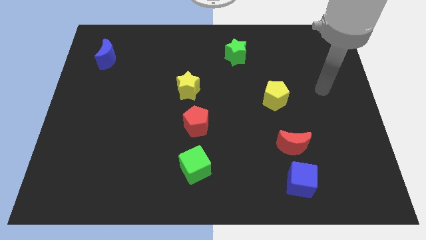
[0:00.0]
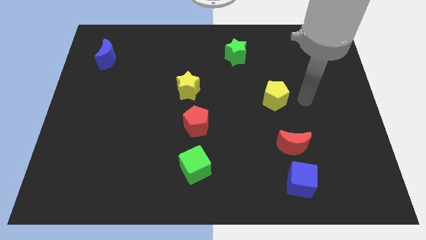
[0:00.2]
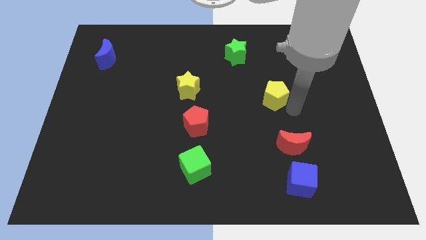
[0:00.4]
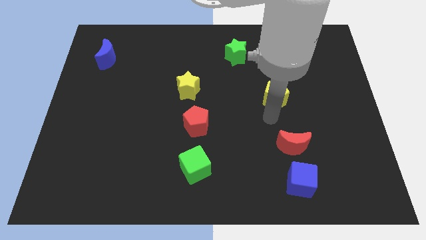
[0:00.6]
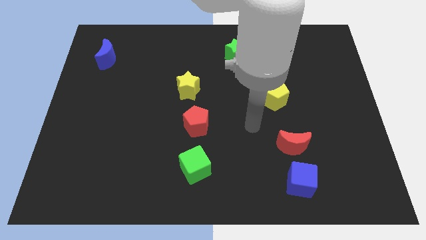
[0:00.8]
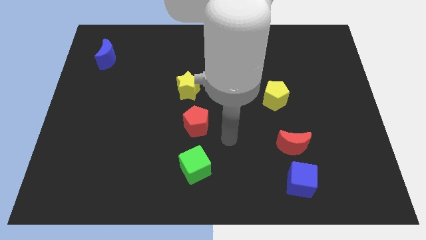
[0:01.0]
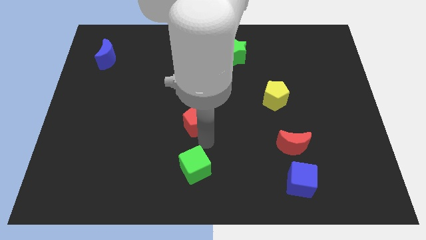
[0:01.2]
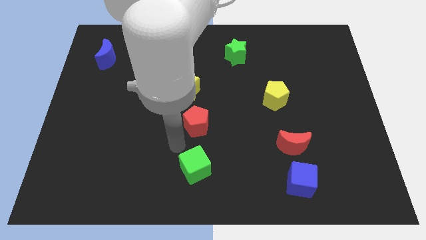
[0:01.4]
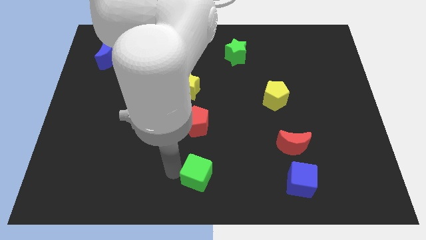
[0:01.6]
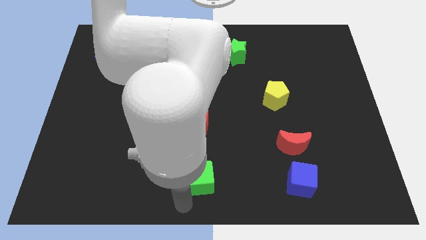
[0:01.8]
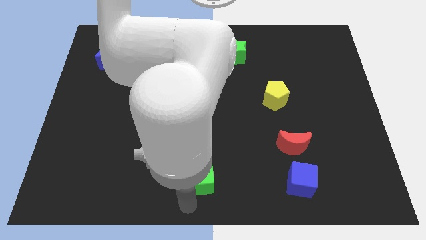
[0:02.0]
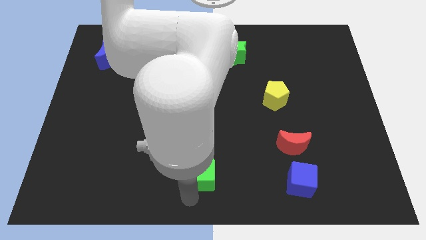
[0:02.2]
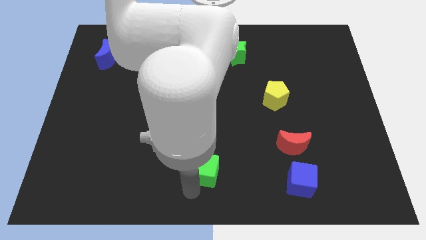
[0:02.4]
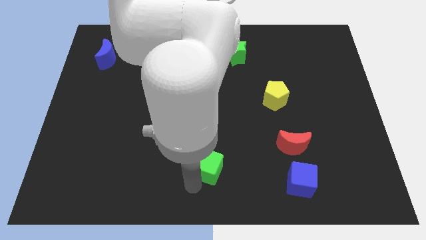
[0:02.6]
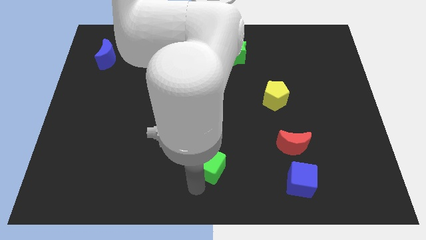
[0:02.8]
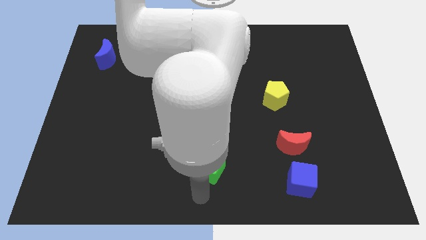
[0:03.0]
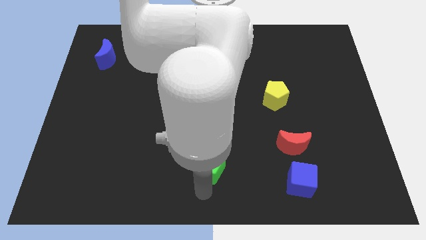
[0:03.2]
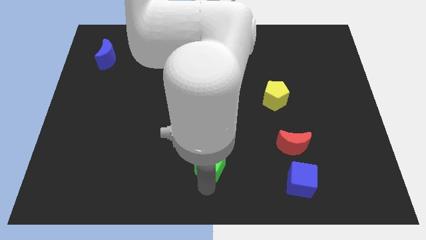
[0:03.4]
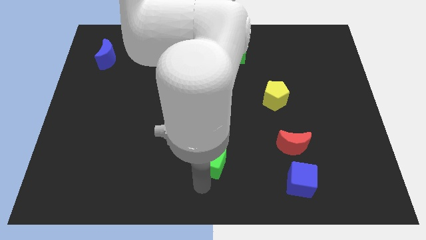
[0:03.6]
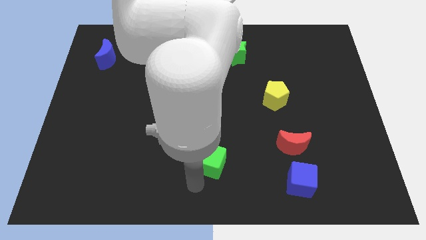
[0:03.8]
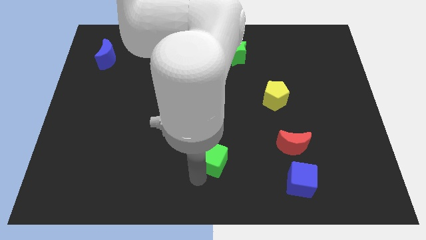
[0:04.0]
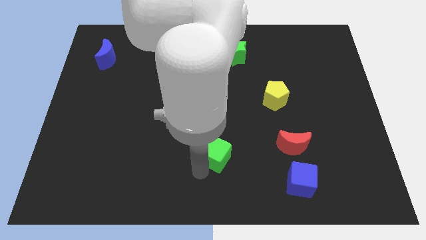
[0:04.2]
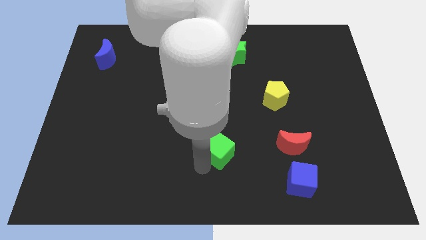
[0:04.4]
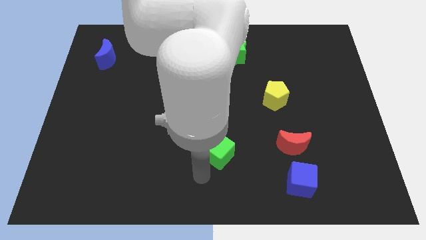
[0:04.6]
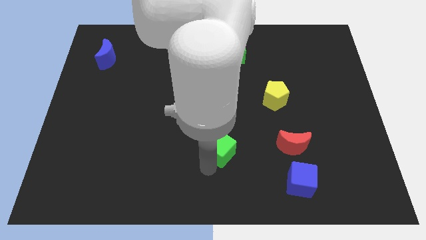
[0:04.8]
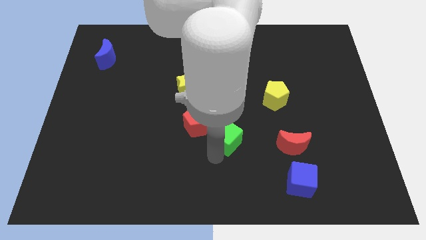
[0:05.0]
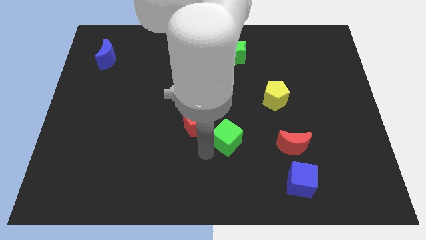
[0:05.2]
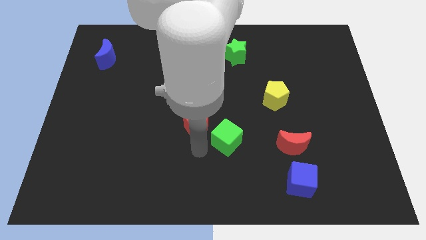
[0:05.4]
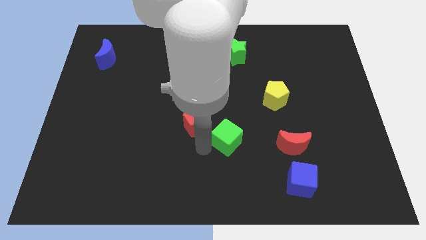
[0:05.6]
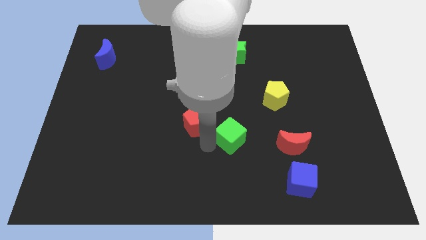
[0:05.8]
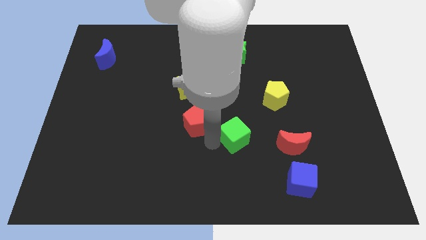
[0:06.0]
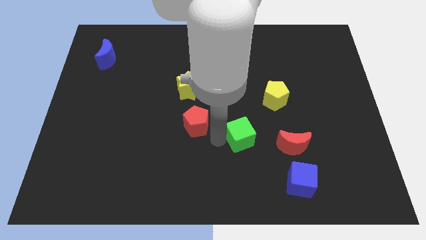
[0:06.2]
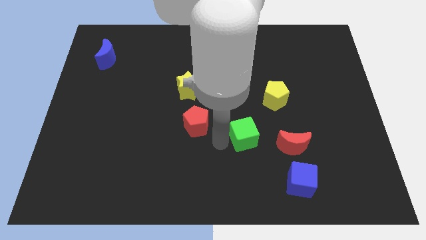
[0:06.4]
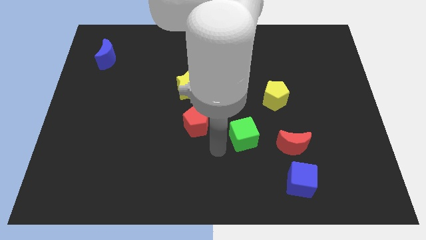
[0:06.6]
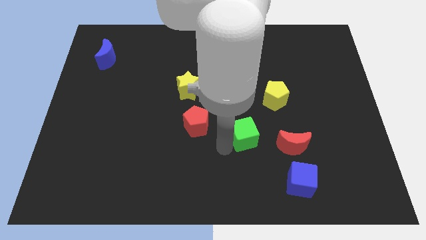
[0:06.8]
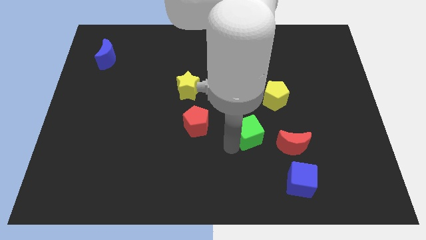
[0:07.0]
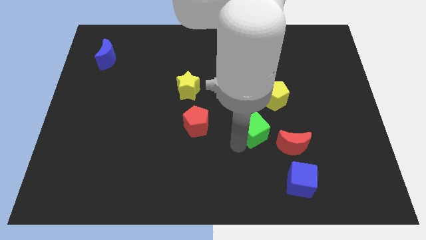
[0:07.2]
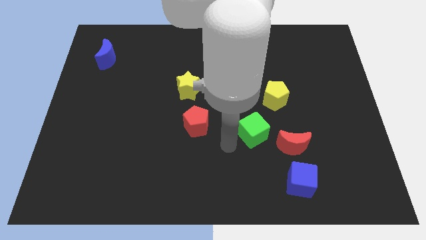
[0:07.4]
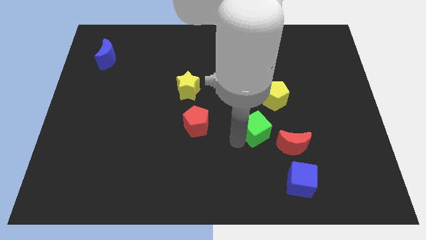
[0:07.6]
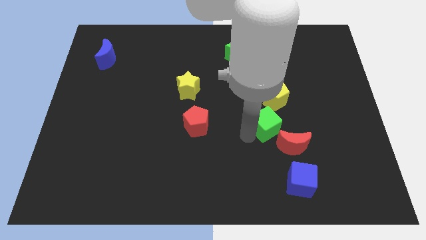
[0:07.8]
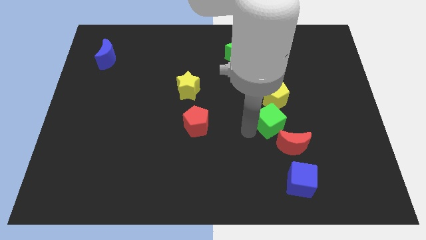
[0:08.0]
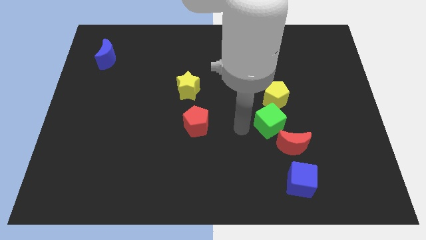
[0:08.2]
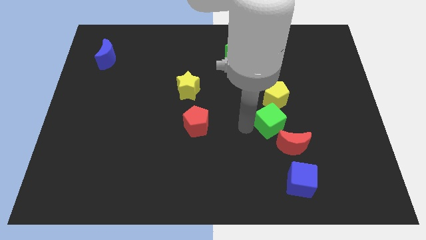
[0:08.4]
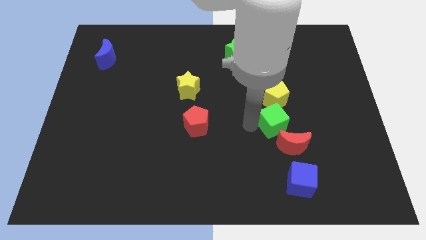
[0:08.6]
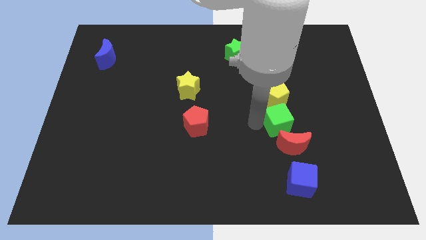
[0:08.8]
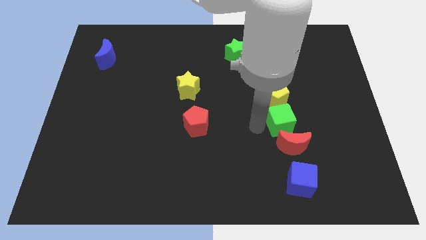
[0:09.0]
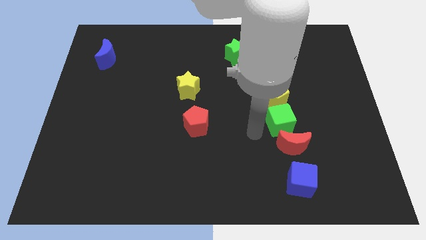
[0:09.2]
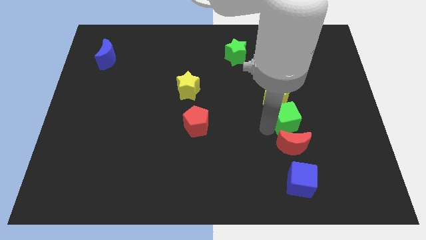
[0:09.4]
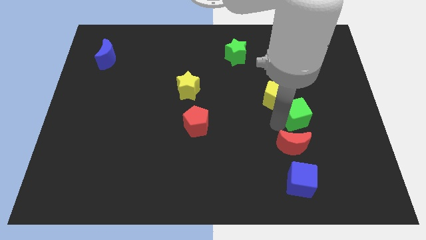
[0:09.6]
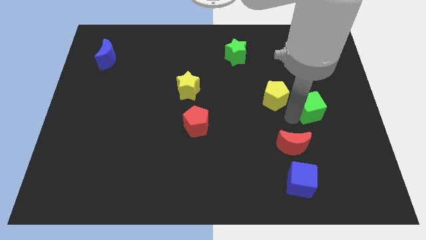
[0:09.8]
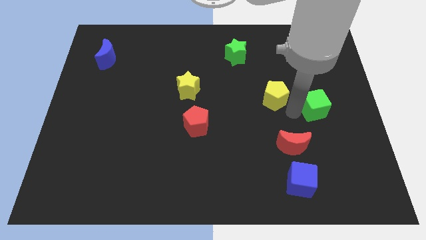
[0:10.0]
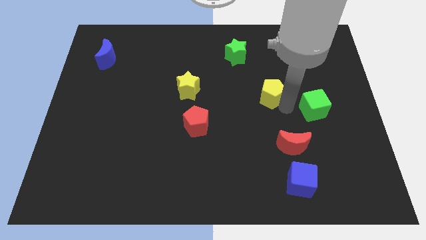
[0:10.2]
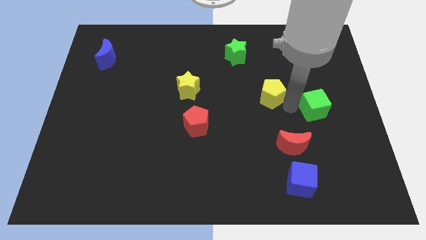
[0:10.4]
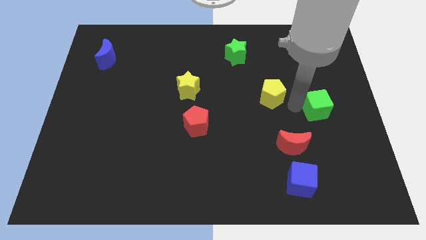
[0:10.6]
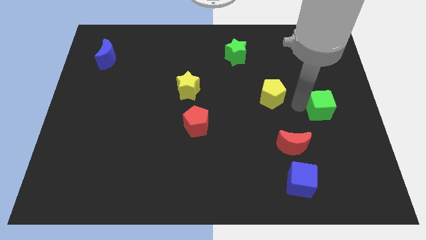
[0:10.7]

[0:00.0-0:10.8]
put the green cube to the center right
